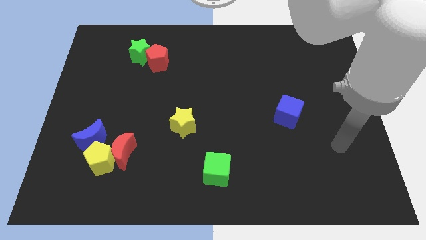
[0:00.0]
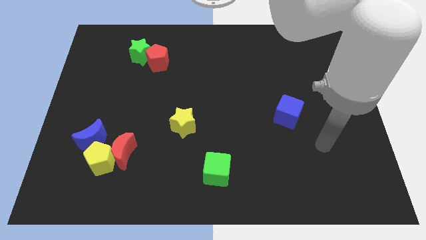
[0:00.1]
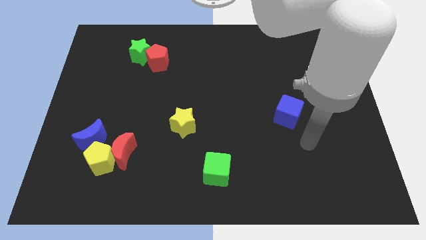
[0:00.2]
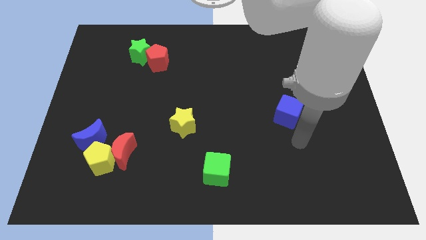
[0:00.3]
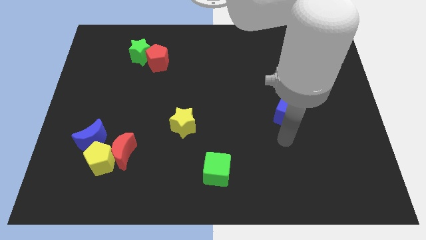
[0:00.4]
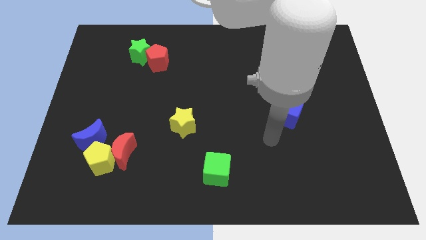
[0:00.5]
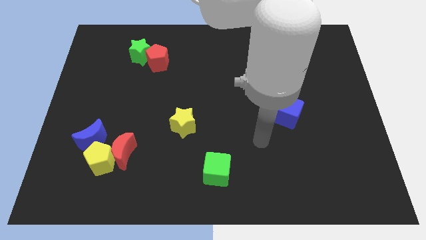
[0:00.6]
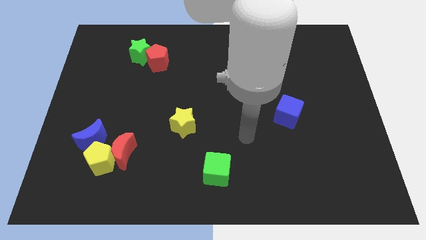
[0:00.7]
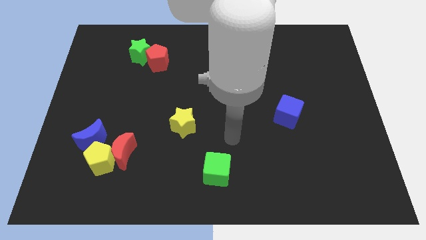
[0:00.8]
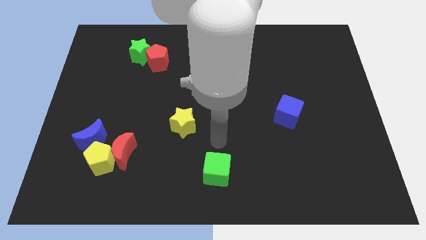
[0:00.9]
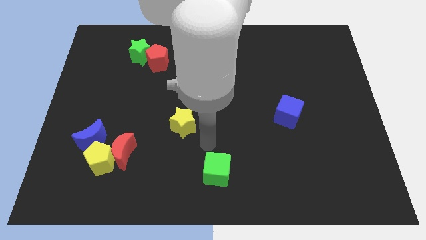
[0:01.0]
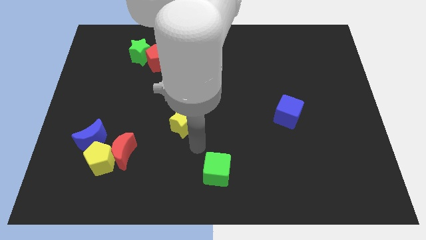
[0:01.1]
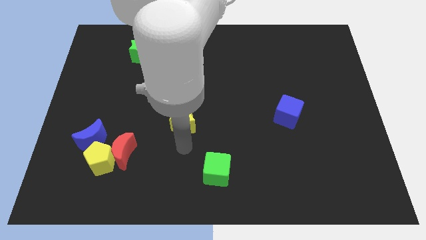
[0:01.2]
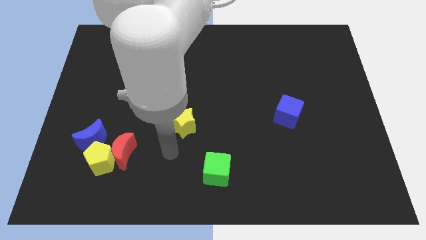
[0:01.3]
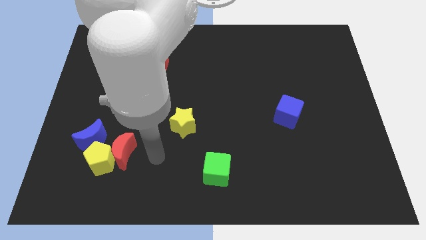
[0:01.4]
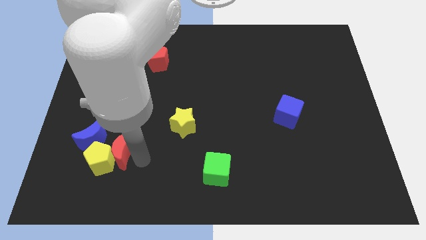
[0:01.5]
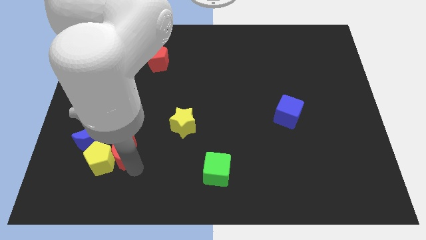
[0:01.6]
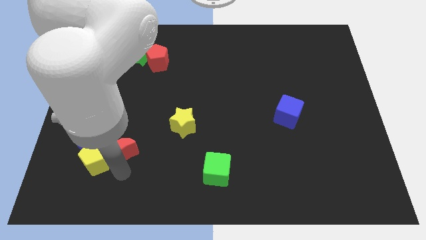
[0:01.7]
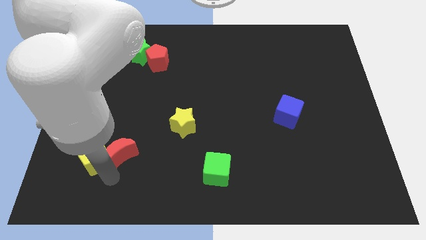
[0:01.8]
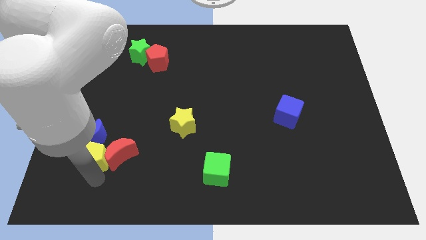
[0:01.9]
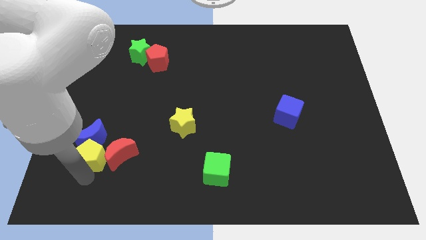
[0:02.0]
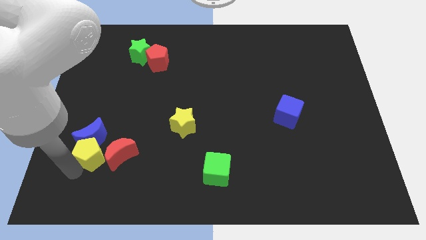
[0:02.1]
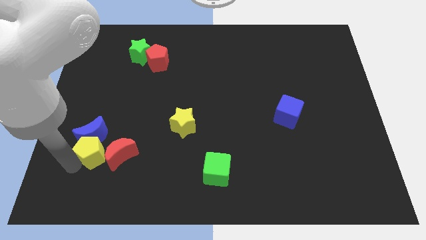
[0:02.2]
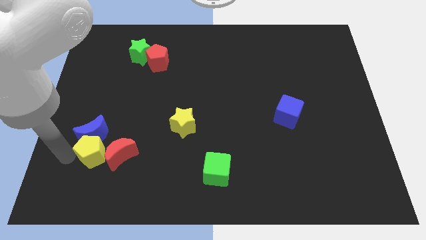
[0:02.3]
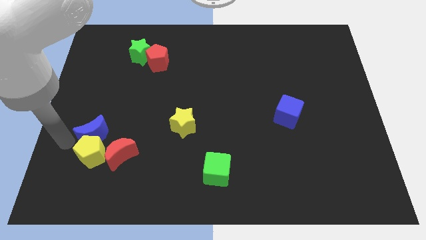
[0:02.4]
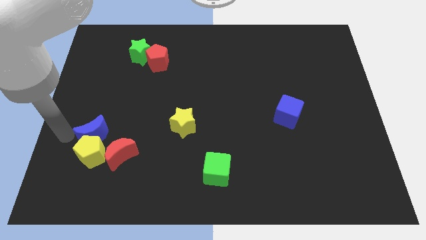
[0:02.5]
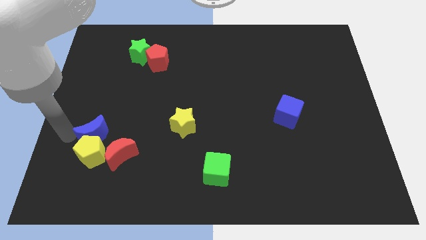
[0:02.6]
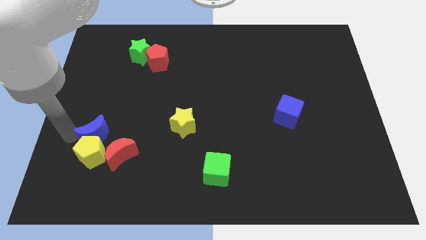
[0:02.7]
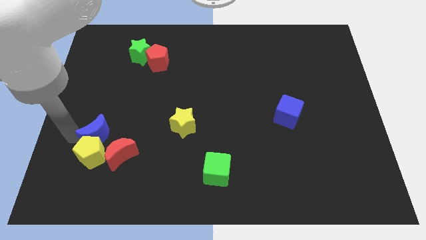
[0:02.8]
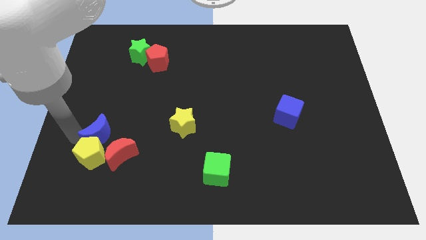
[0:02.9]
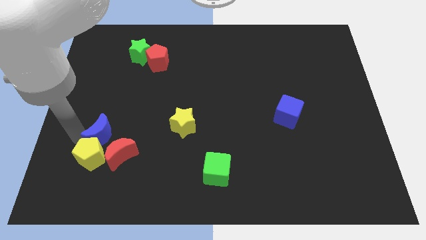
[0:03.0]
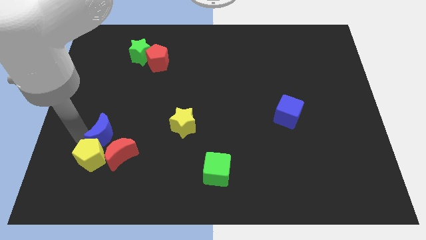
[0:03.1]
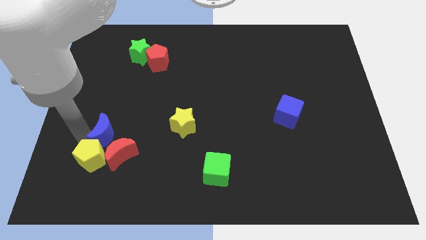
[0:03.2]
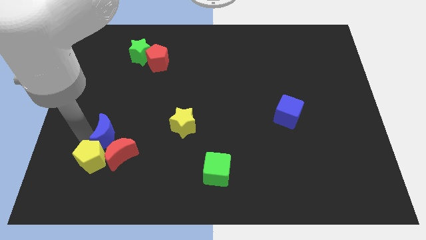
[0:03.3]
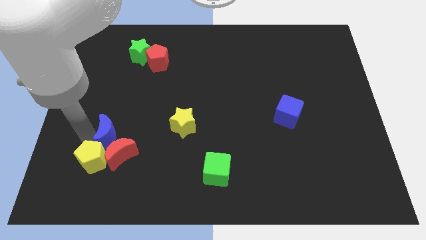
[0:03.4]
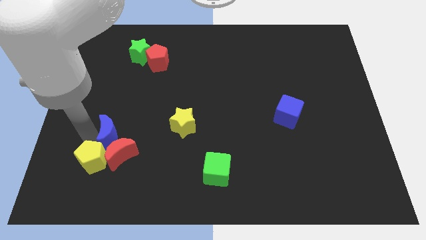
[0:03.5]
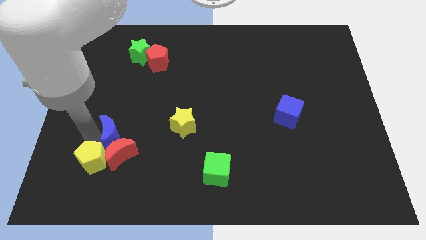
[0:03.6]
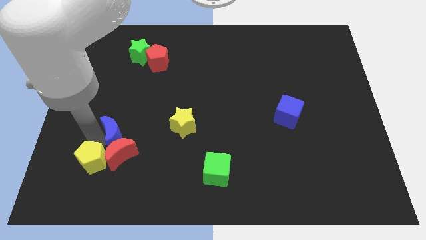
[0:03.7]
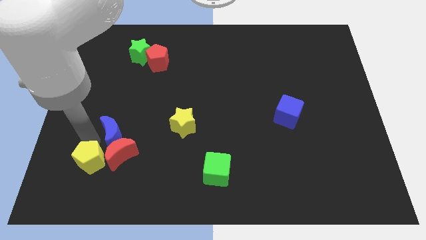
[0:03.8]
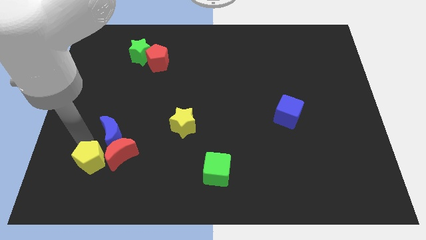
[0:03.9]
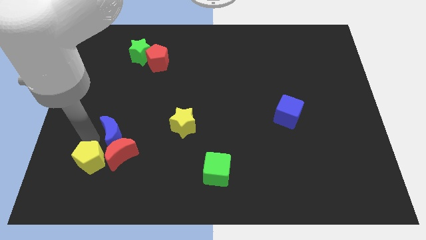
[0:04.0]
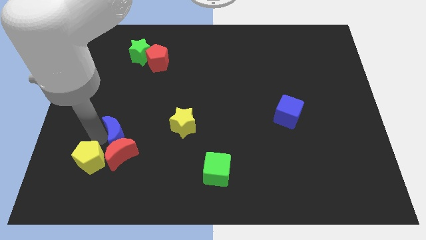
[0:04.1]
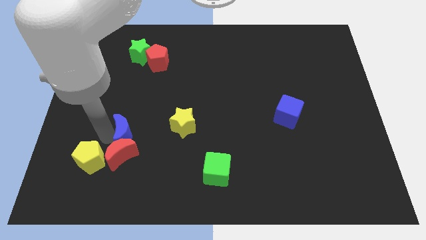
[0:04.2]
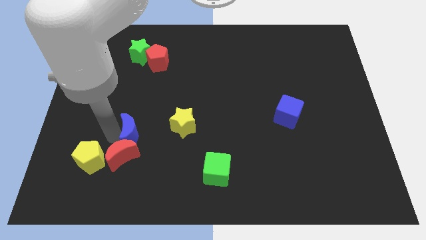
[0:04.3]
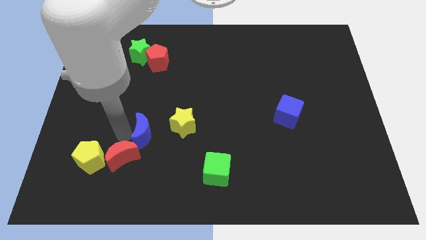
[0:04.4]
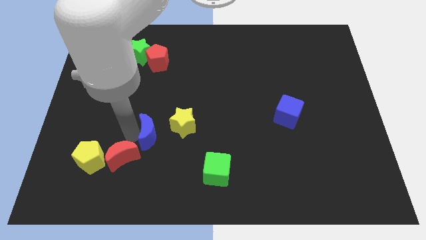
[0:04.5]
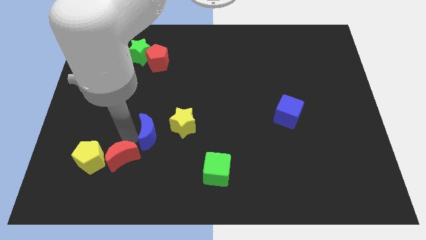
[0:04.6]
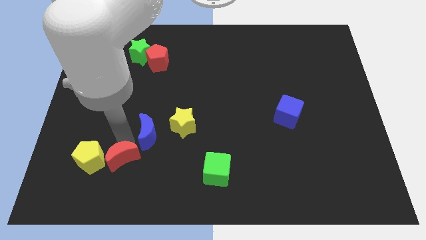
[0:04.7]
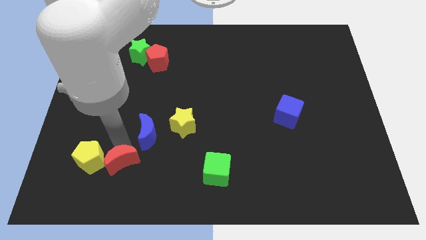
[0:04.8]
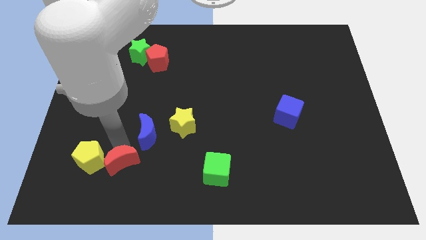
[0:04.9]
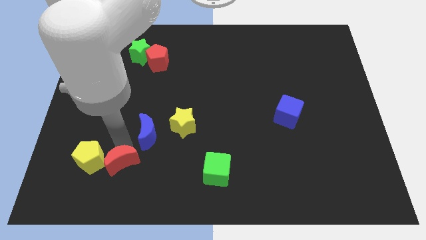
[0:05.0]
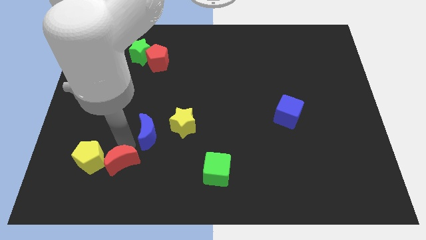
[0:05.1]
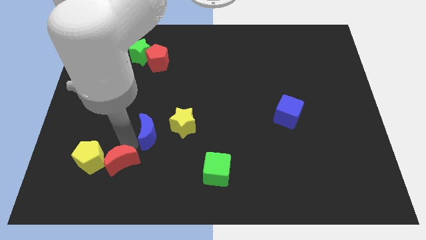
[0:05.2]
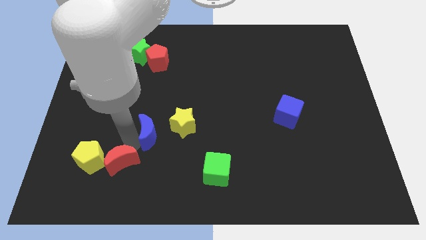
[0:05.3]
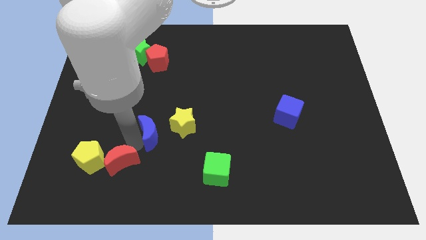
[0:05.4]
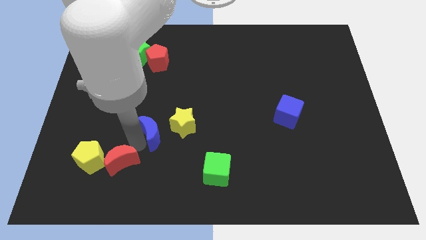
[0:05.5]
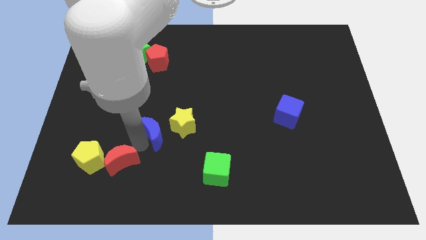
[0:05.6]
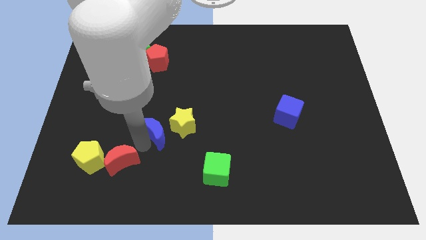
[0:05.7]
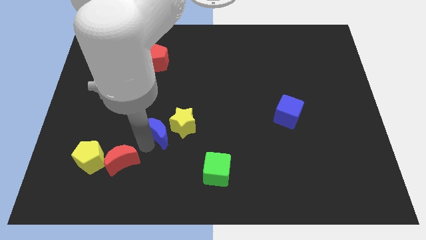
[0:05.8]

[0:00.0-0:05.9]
move the blue moon next to the yellow star
